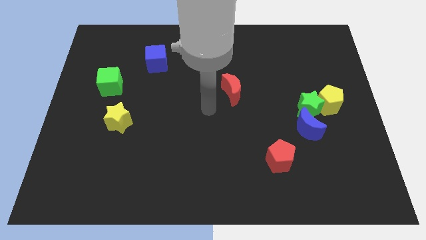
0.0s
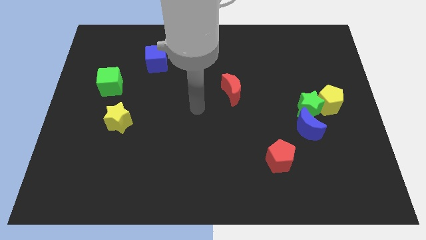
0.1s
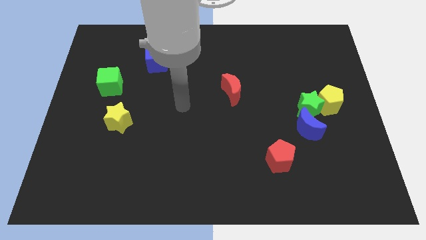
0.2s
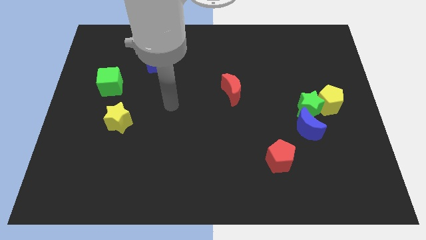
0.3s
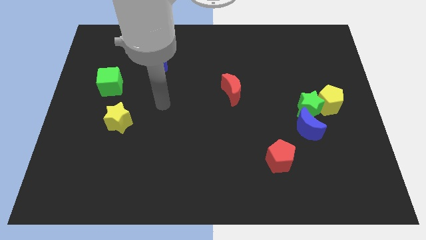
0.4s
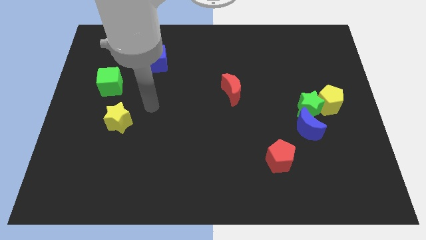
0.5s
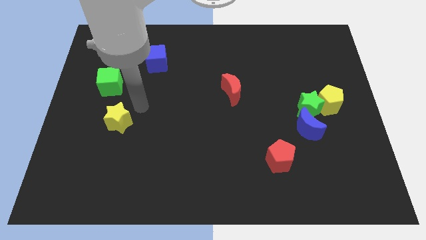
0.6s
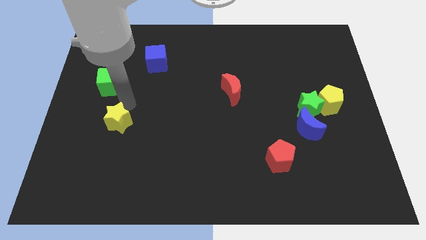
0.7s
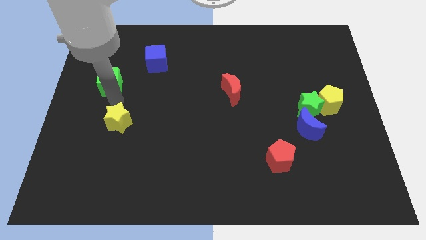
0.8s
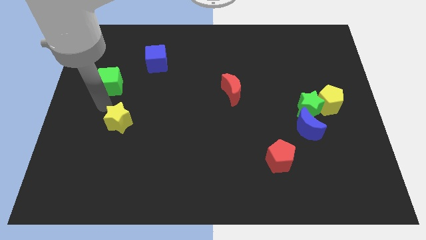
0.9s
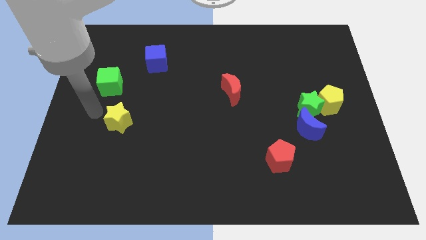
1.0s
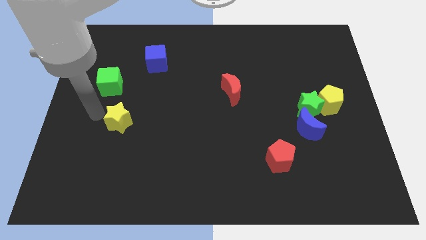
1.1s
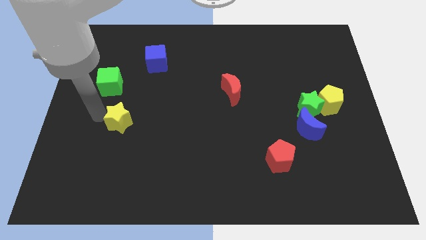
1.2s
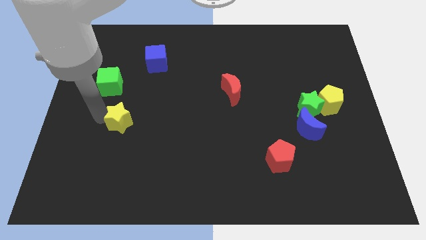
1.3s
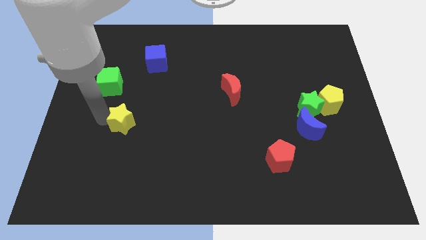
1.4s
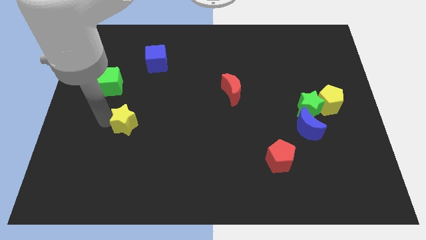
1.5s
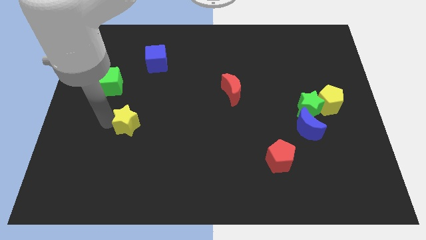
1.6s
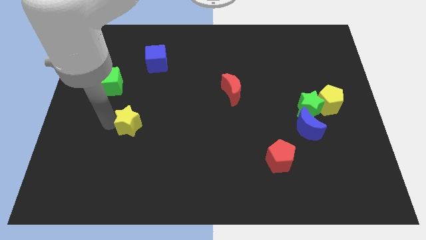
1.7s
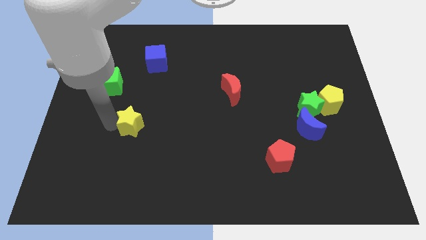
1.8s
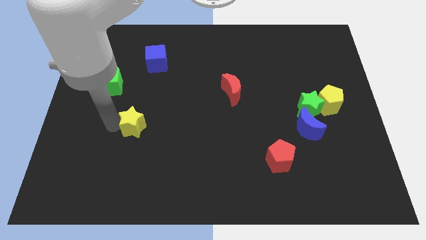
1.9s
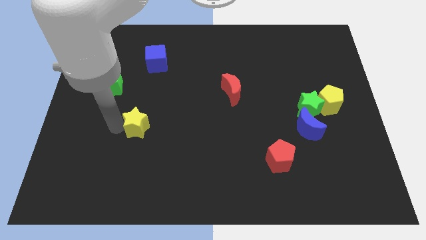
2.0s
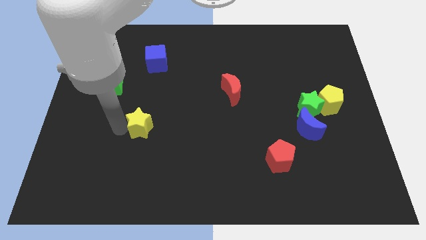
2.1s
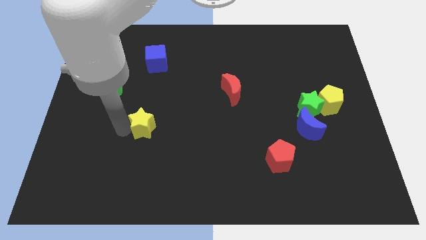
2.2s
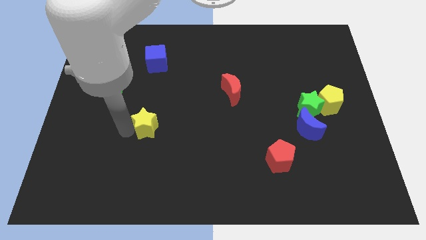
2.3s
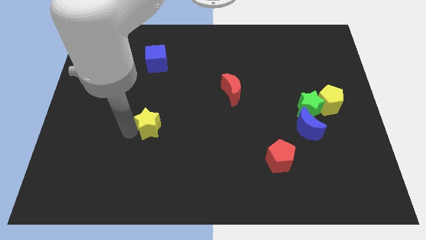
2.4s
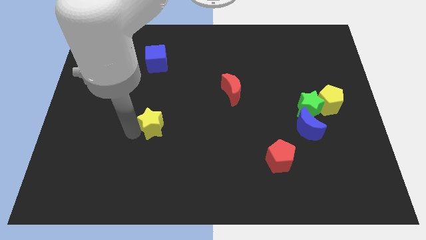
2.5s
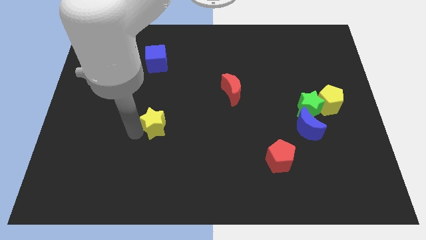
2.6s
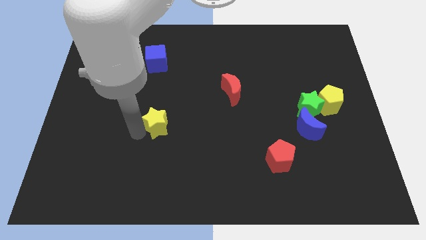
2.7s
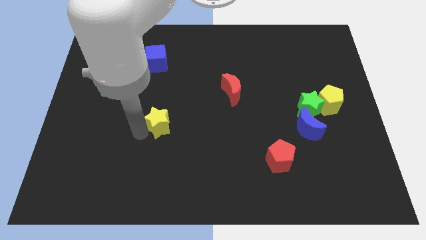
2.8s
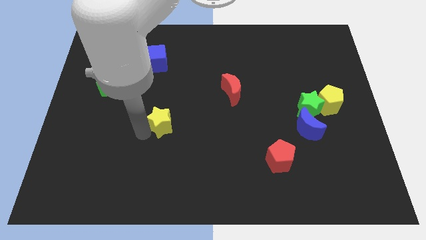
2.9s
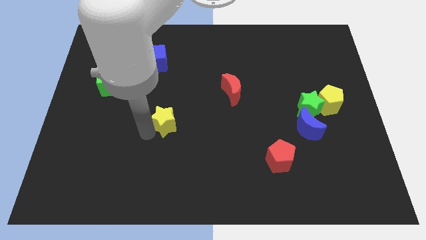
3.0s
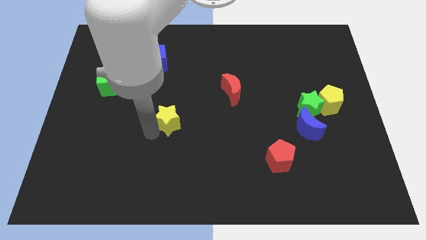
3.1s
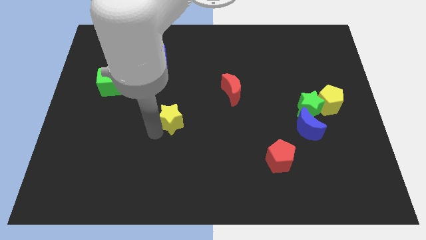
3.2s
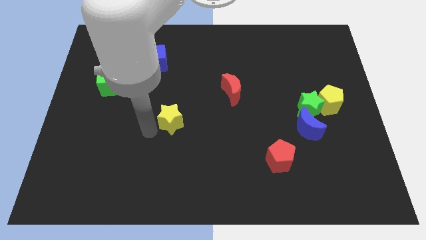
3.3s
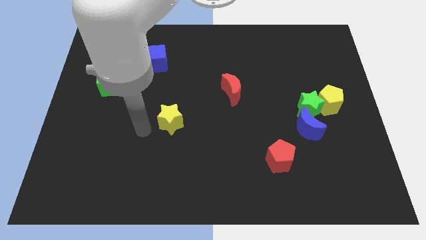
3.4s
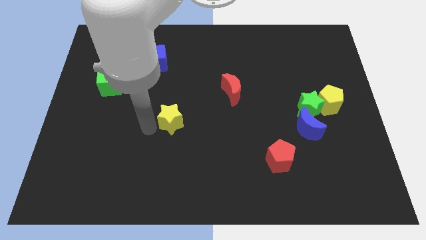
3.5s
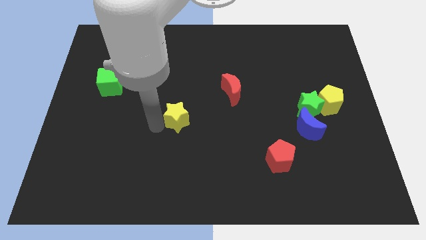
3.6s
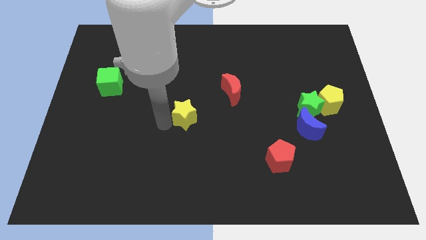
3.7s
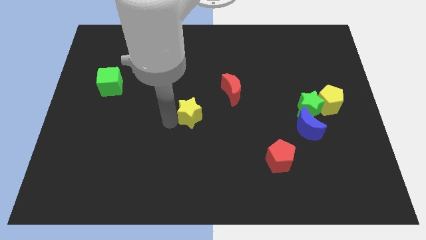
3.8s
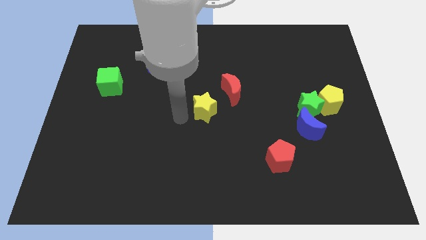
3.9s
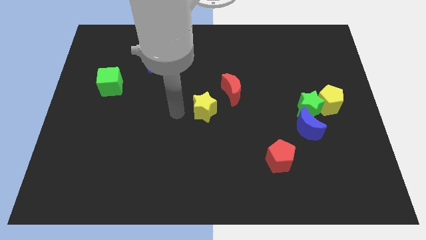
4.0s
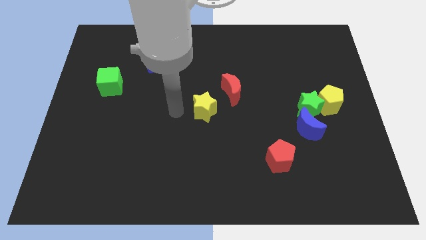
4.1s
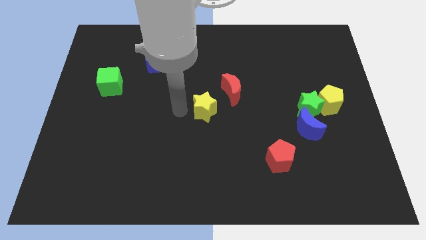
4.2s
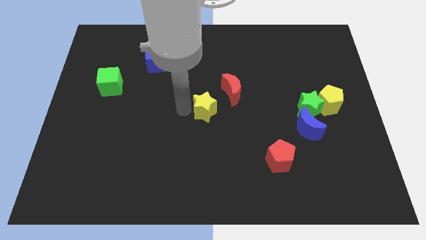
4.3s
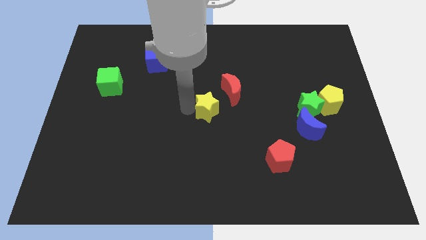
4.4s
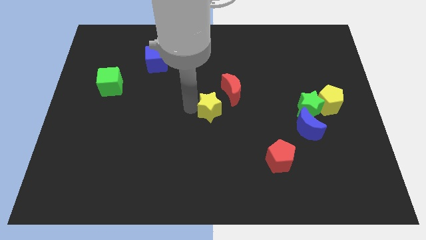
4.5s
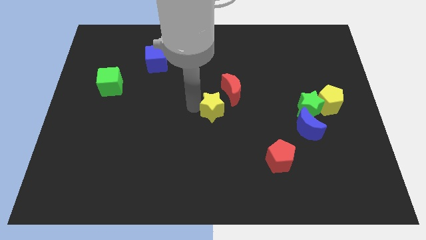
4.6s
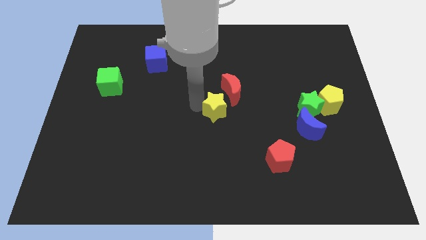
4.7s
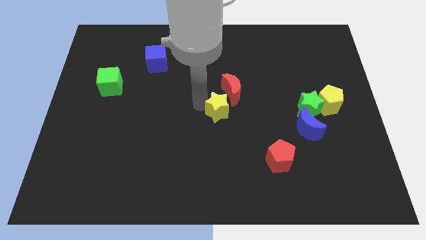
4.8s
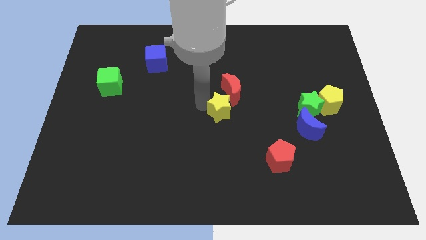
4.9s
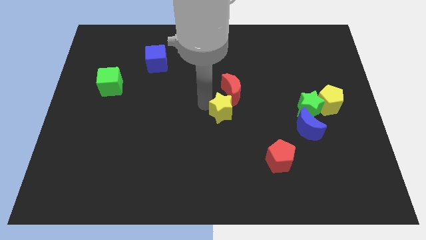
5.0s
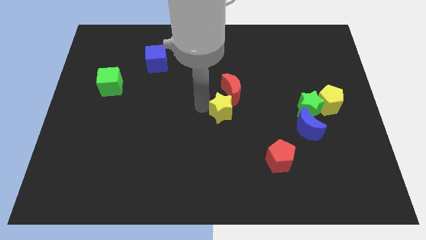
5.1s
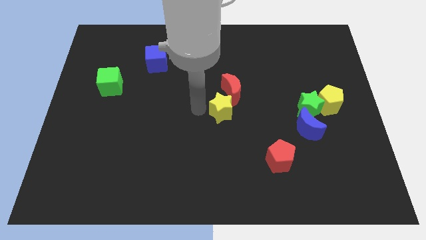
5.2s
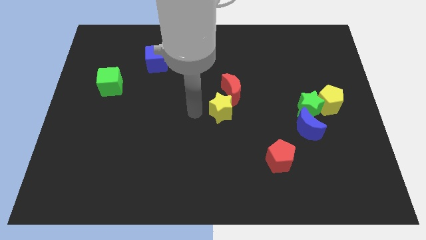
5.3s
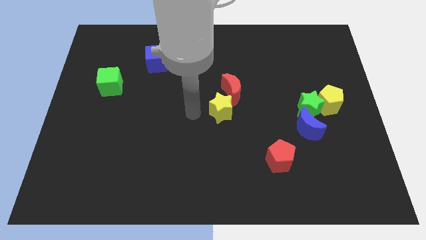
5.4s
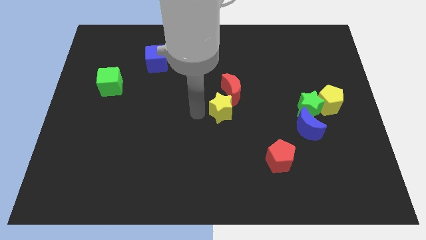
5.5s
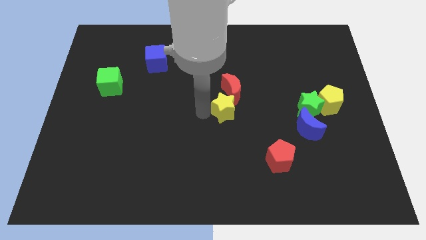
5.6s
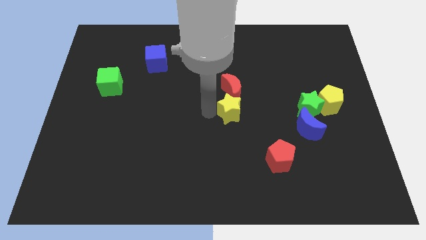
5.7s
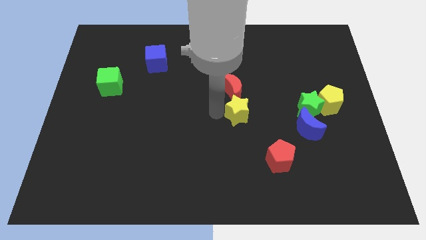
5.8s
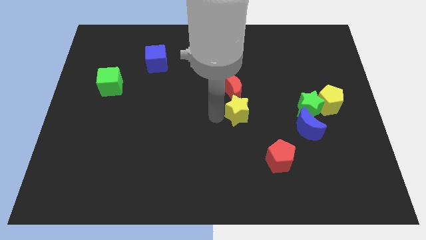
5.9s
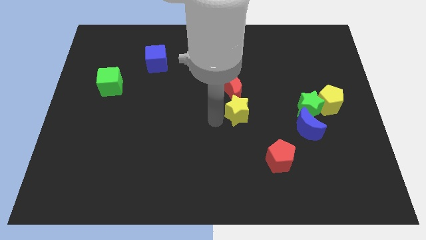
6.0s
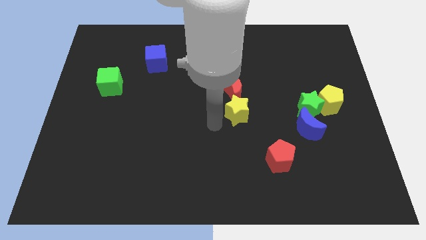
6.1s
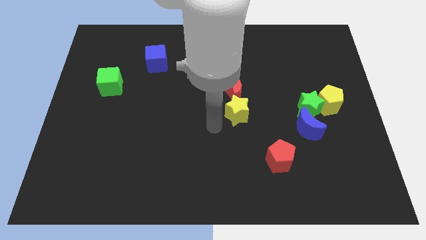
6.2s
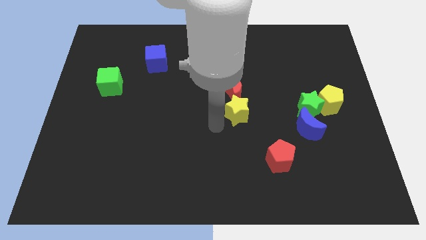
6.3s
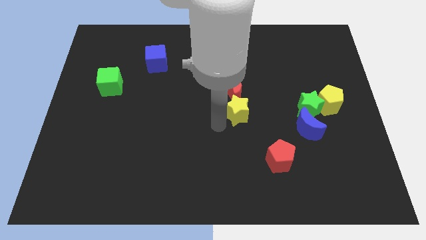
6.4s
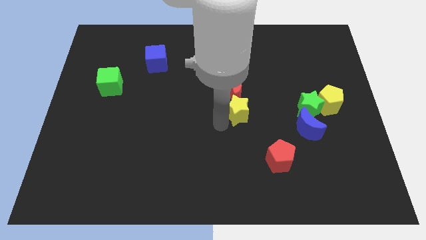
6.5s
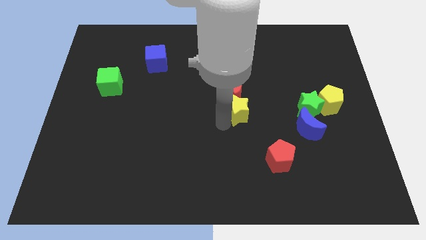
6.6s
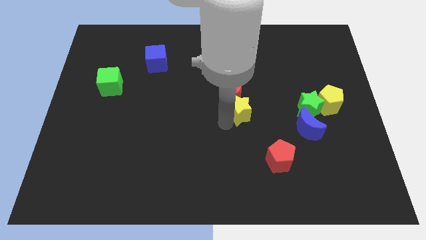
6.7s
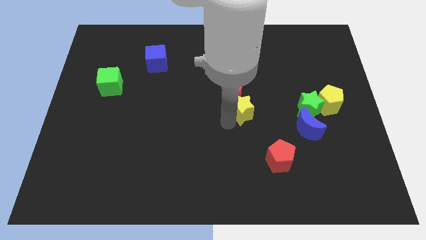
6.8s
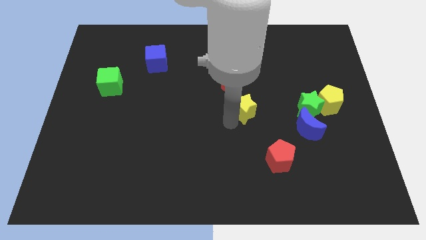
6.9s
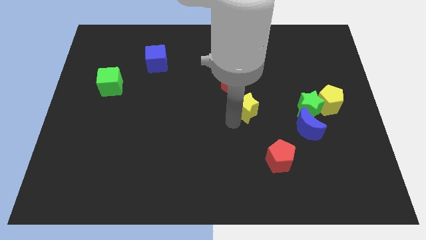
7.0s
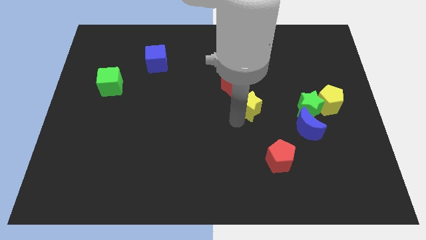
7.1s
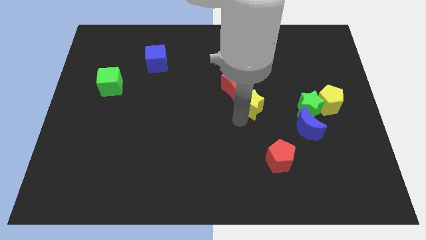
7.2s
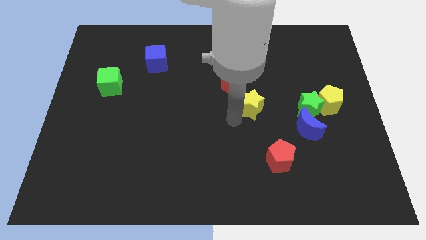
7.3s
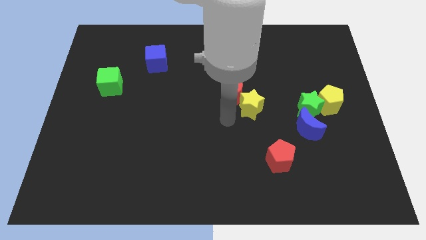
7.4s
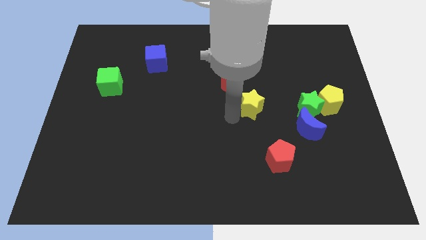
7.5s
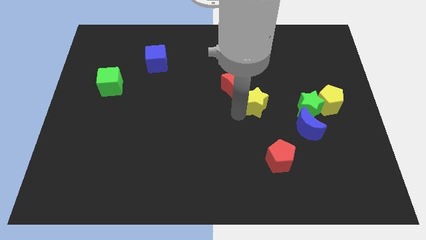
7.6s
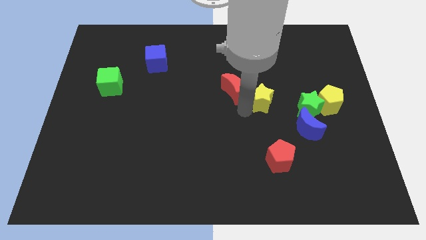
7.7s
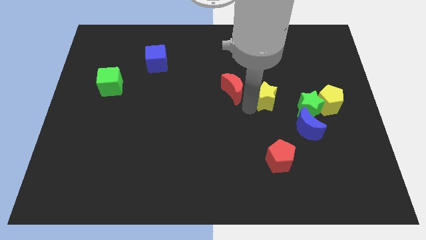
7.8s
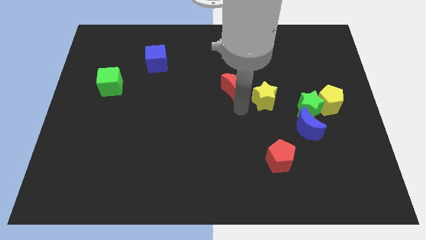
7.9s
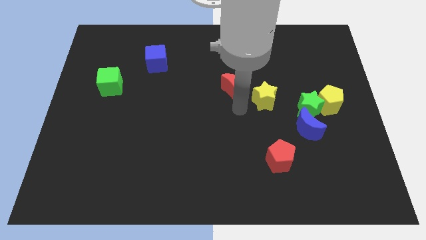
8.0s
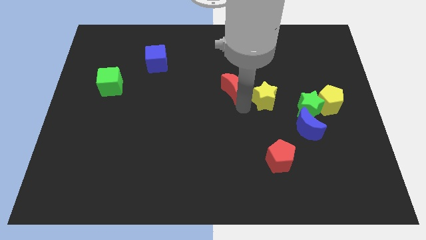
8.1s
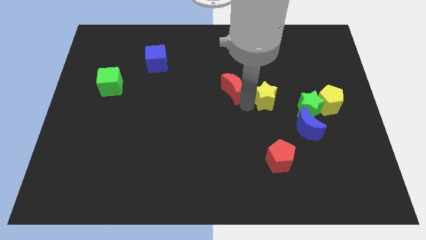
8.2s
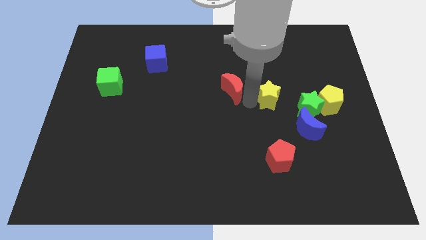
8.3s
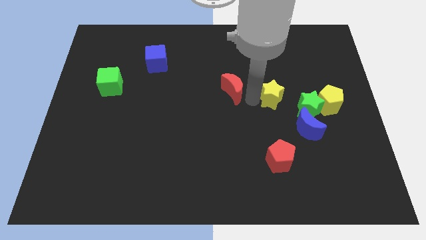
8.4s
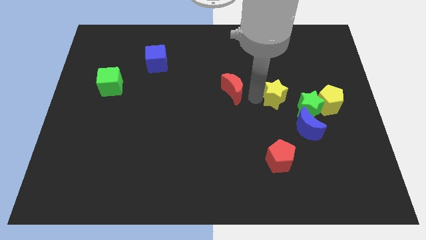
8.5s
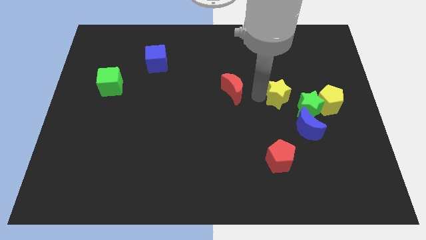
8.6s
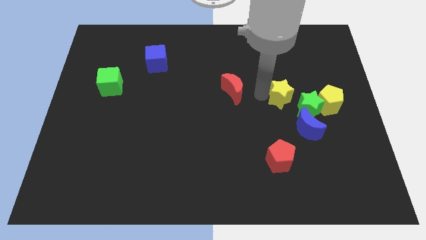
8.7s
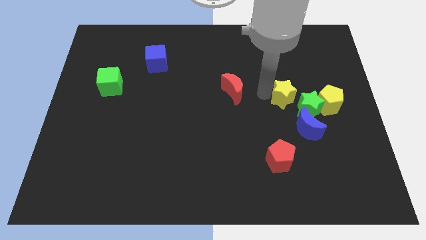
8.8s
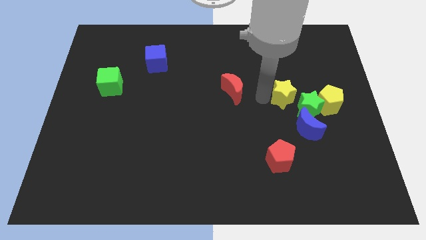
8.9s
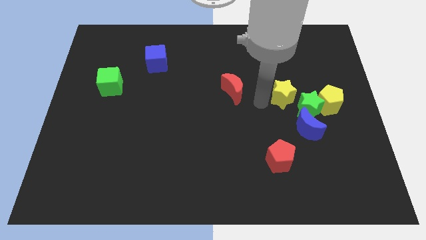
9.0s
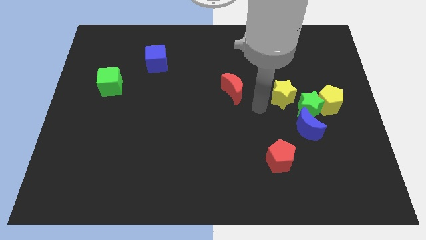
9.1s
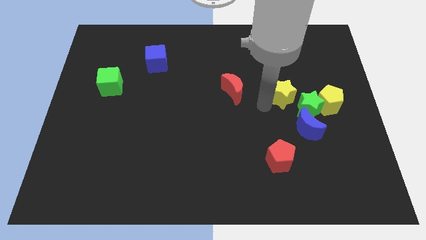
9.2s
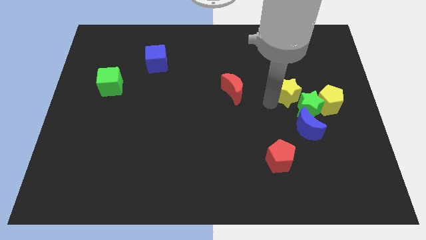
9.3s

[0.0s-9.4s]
push the yellow star to the top left of the yellow pentagon
